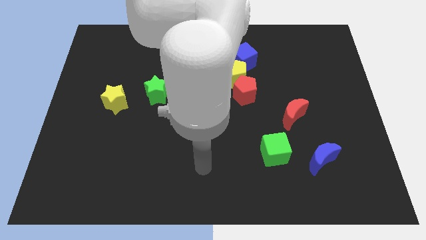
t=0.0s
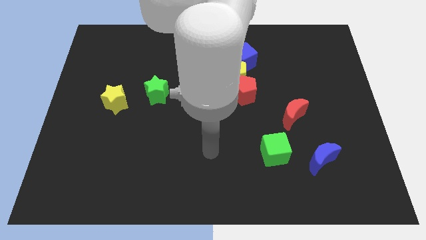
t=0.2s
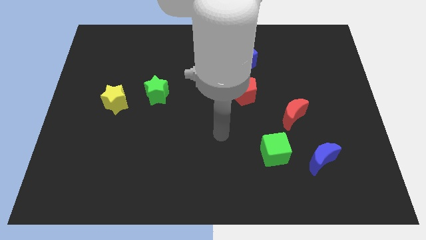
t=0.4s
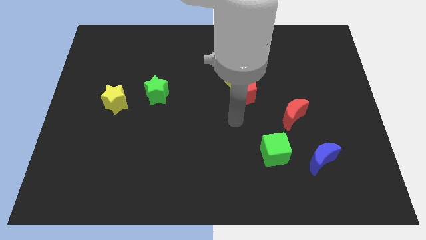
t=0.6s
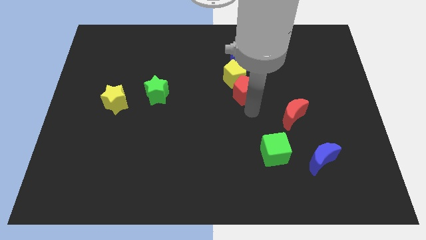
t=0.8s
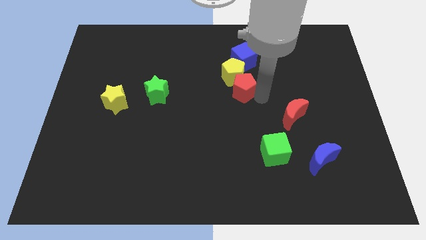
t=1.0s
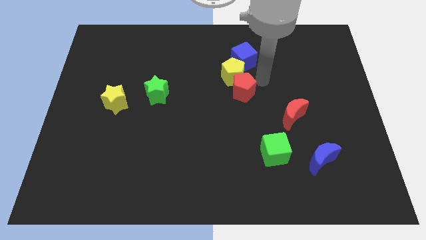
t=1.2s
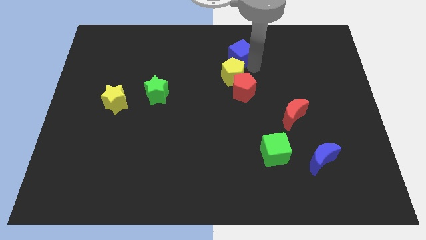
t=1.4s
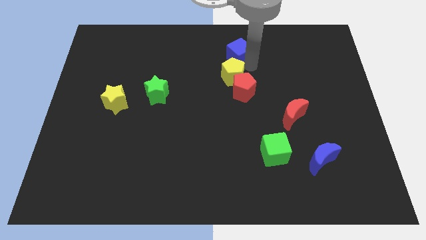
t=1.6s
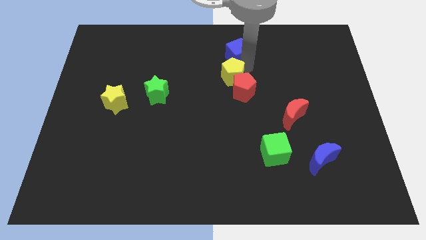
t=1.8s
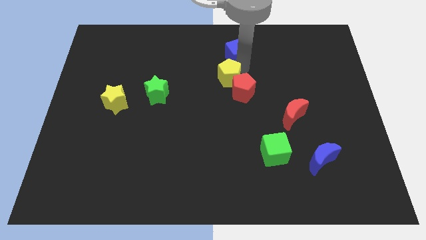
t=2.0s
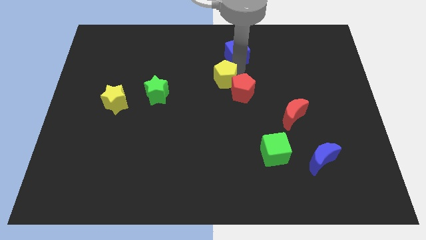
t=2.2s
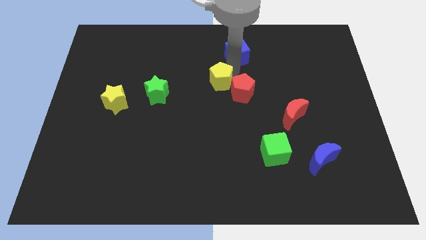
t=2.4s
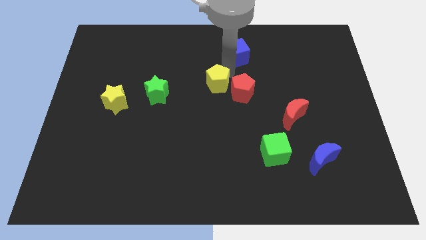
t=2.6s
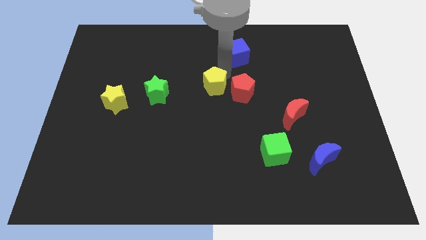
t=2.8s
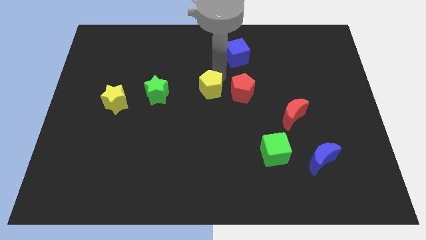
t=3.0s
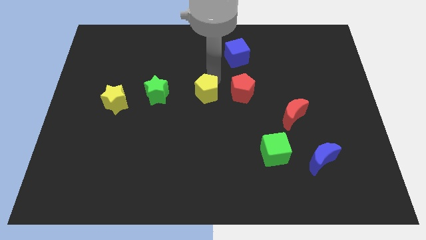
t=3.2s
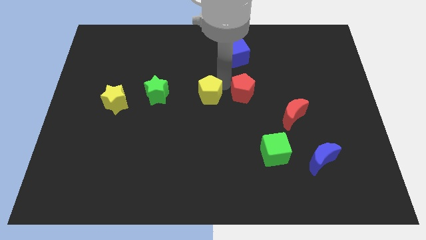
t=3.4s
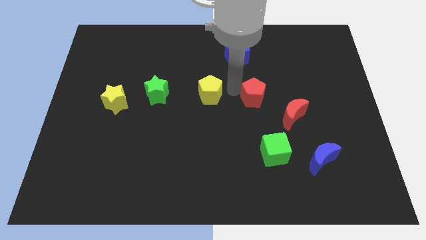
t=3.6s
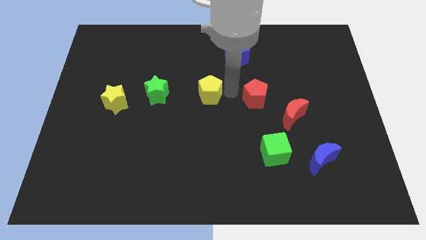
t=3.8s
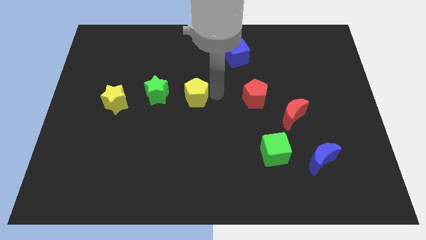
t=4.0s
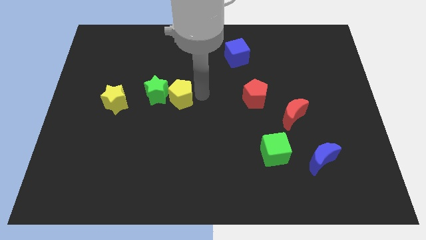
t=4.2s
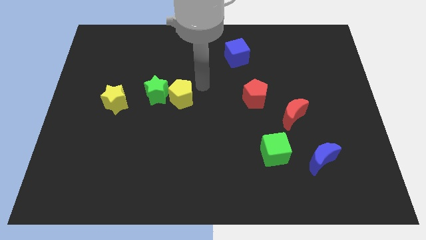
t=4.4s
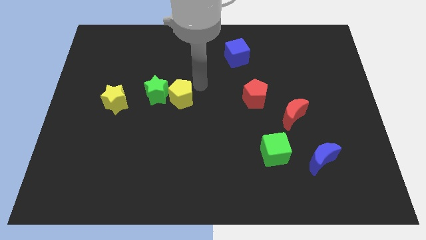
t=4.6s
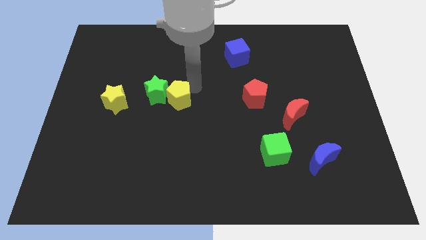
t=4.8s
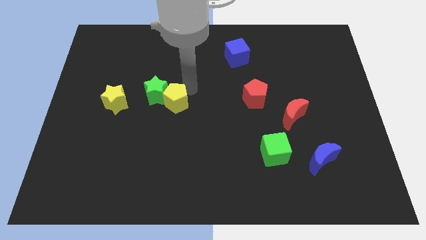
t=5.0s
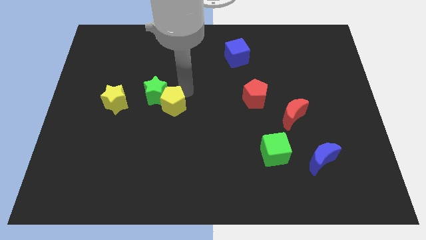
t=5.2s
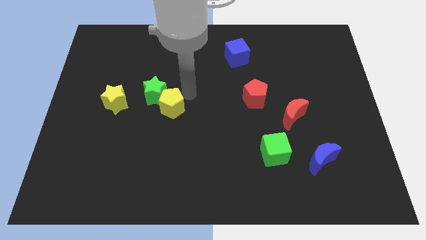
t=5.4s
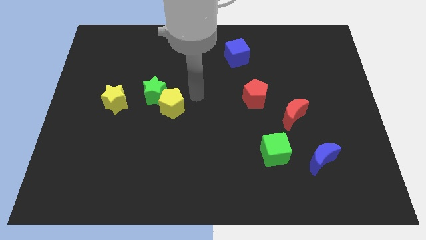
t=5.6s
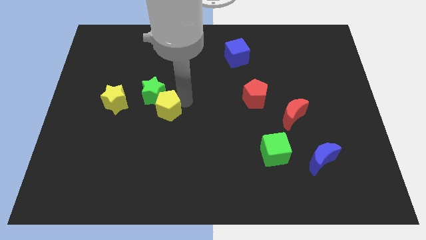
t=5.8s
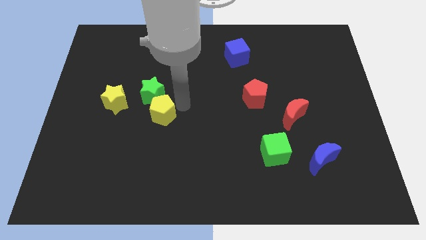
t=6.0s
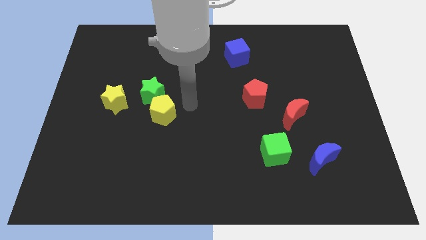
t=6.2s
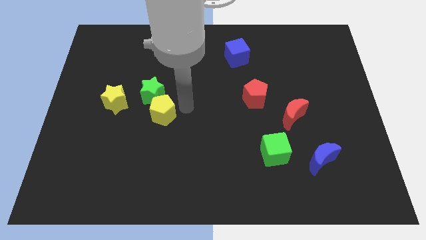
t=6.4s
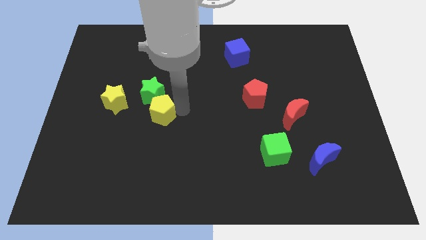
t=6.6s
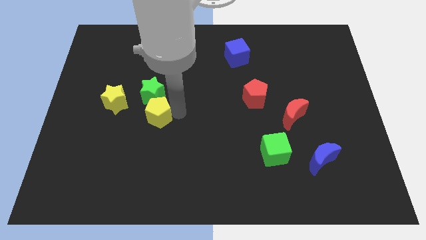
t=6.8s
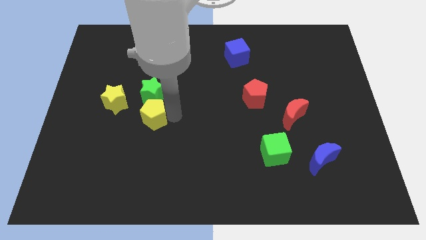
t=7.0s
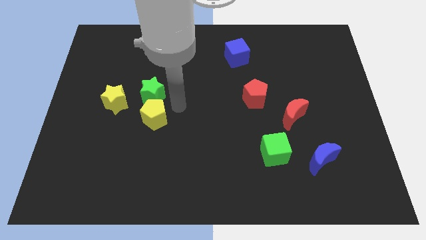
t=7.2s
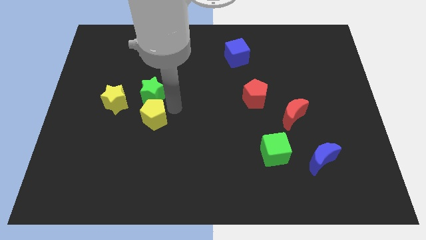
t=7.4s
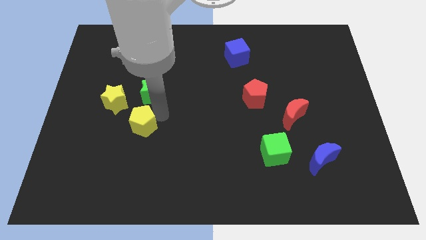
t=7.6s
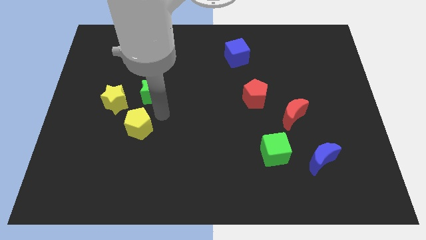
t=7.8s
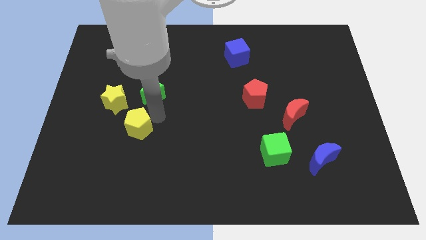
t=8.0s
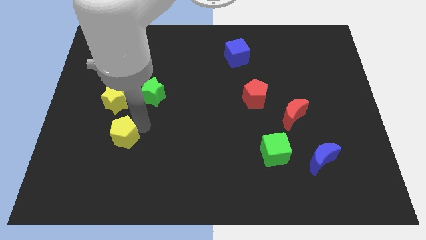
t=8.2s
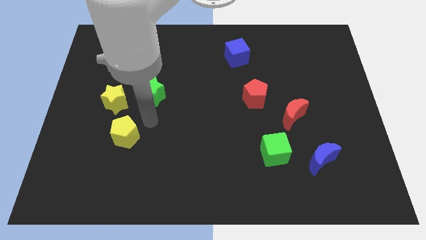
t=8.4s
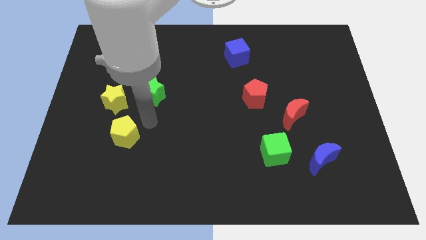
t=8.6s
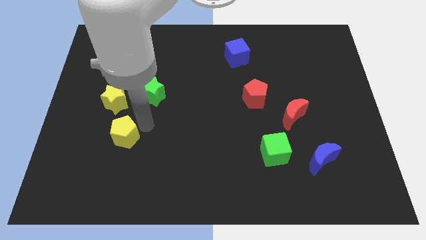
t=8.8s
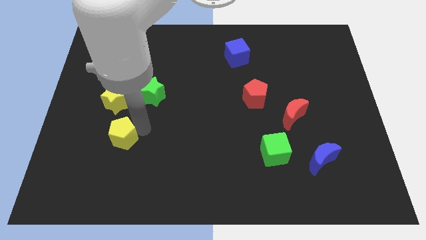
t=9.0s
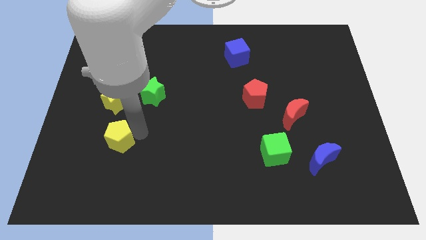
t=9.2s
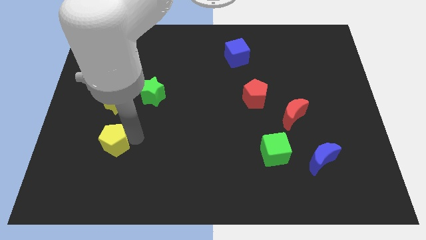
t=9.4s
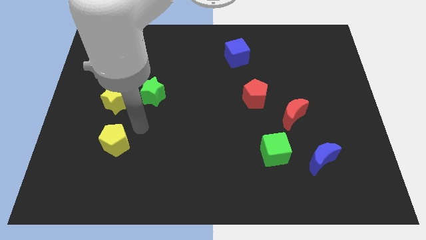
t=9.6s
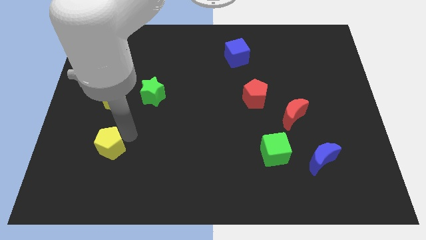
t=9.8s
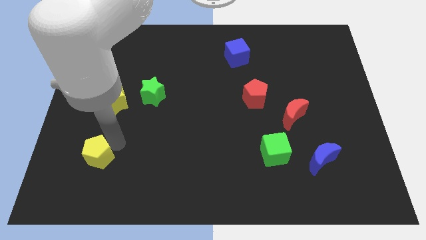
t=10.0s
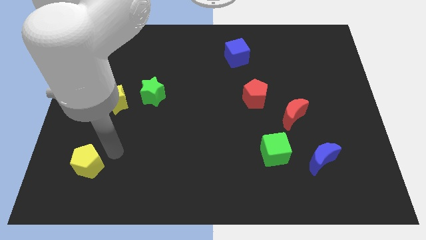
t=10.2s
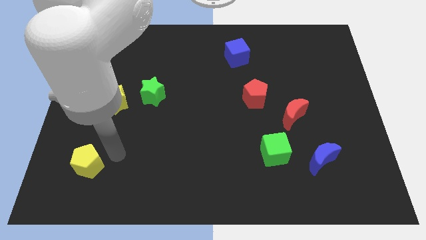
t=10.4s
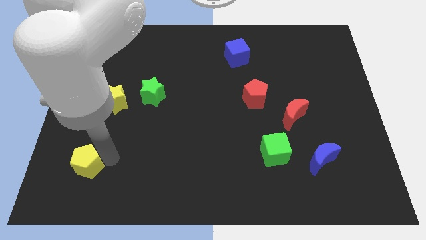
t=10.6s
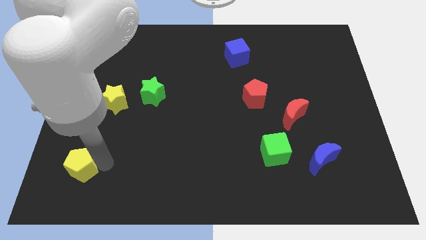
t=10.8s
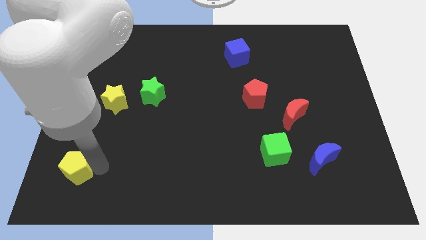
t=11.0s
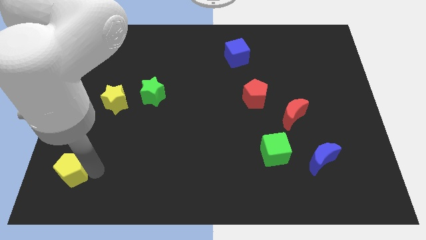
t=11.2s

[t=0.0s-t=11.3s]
put the yellow pentagon to the bottom left
